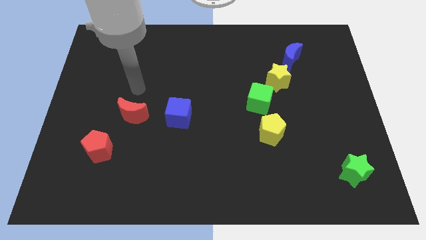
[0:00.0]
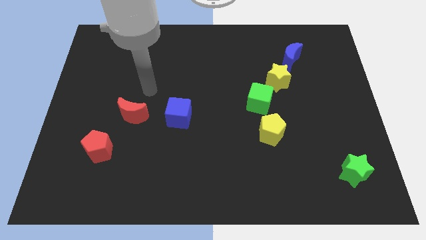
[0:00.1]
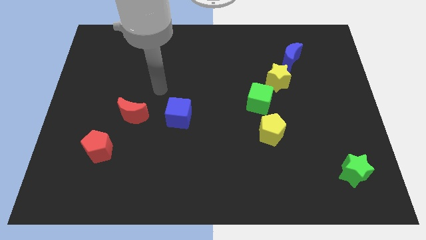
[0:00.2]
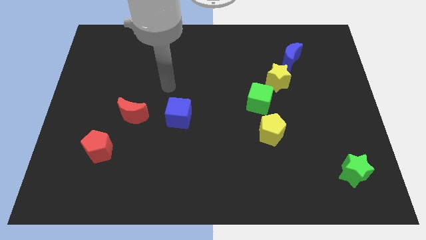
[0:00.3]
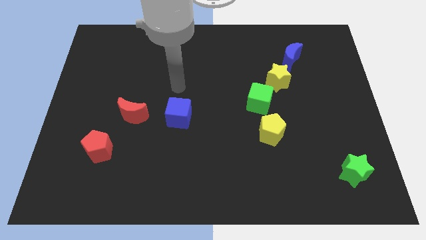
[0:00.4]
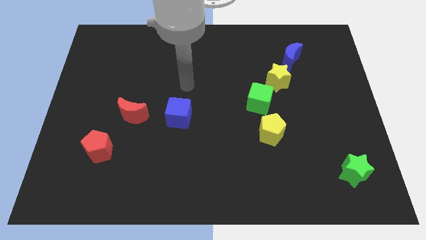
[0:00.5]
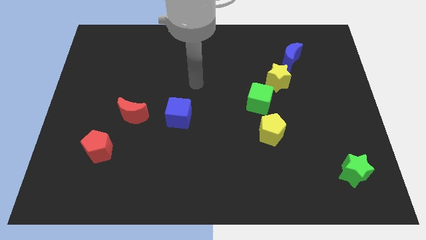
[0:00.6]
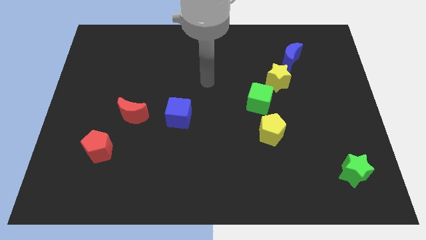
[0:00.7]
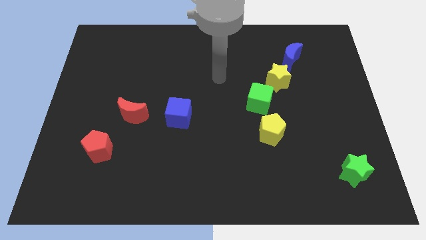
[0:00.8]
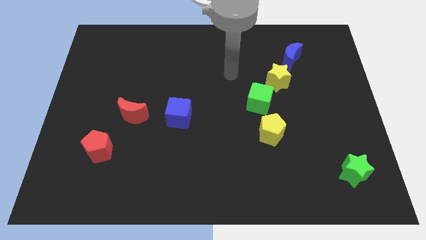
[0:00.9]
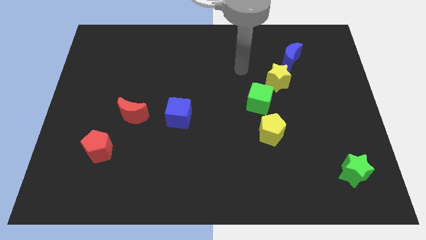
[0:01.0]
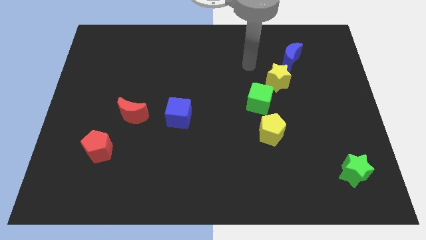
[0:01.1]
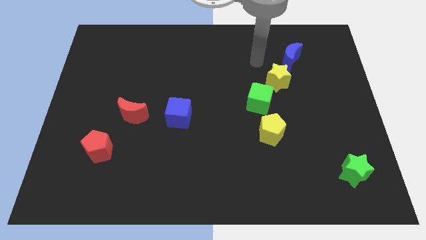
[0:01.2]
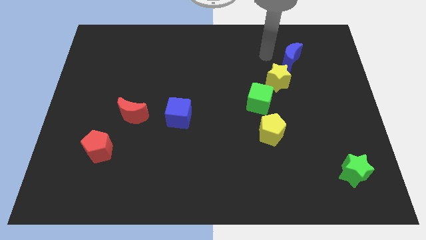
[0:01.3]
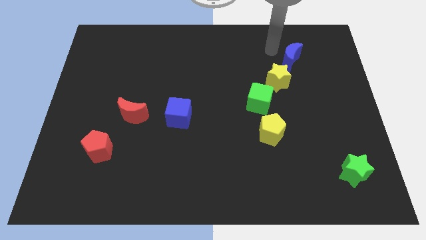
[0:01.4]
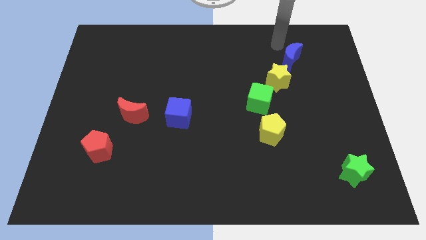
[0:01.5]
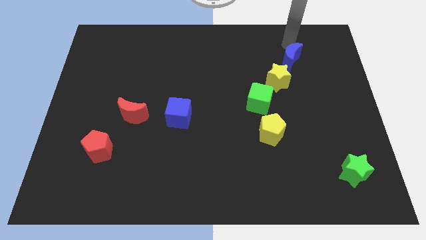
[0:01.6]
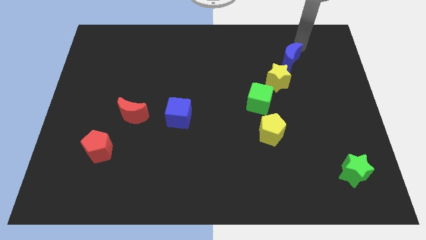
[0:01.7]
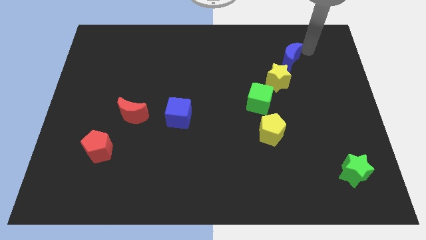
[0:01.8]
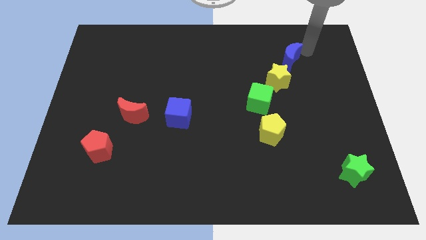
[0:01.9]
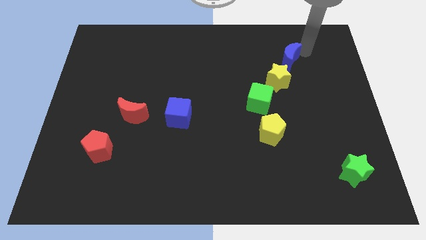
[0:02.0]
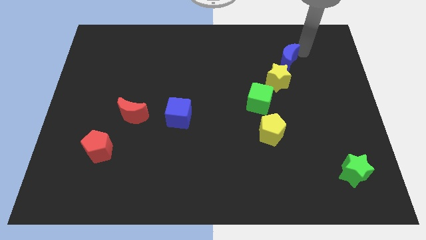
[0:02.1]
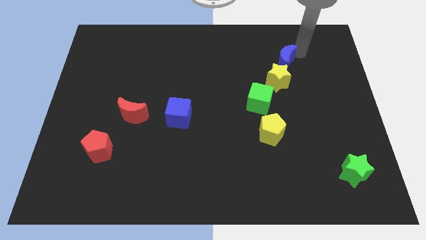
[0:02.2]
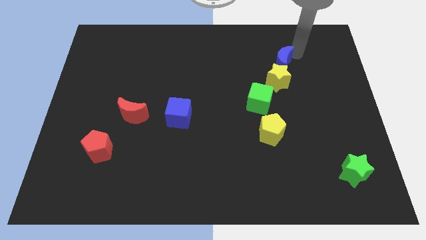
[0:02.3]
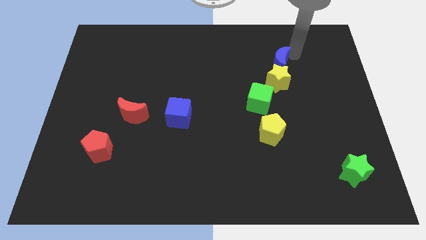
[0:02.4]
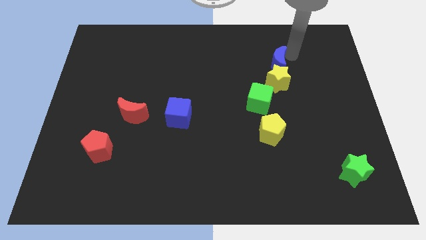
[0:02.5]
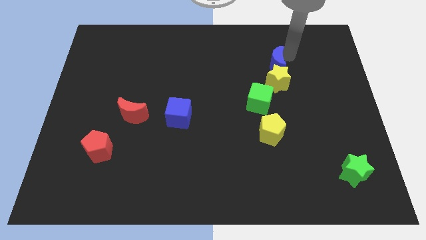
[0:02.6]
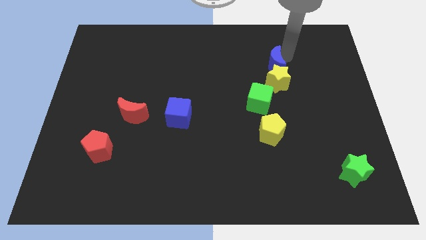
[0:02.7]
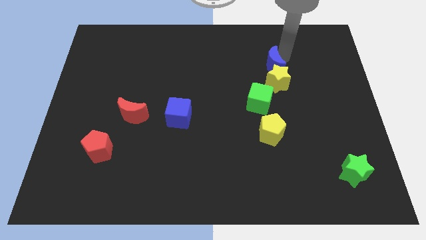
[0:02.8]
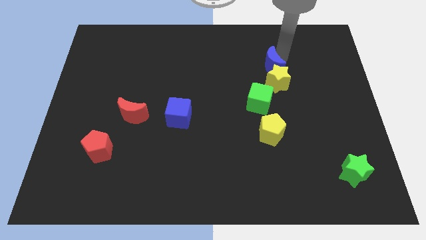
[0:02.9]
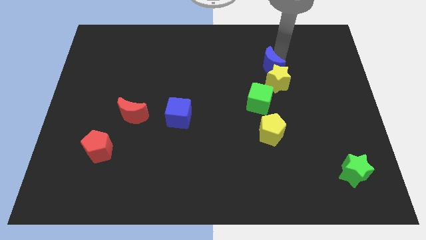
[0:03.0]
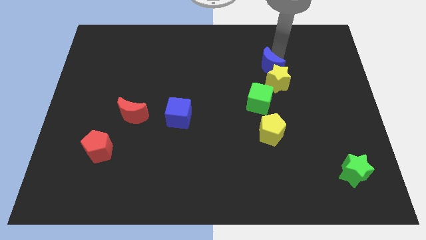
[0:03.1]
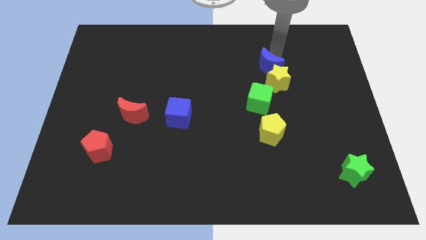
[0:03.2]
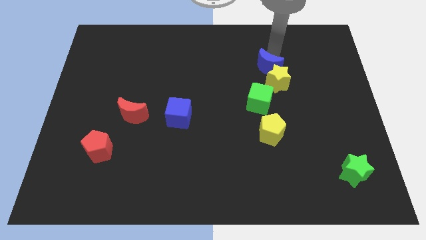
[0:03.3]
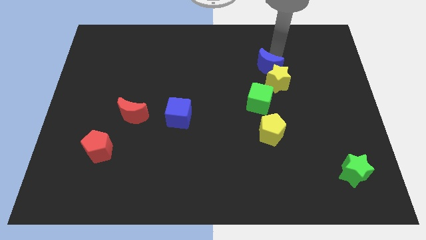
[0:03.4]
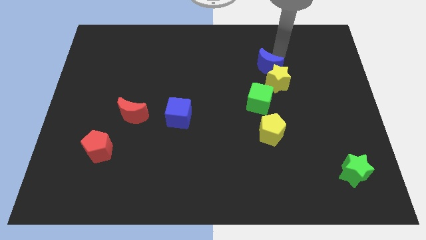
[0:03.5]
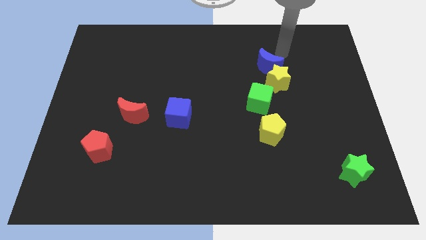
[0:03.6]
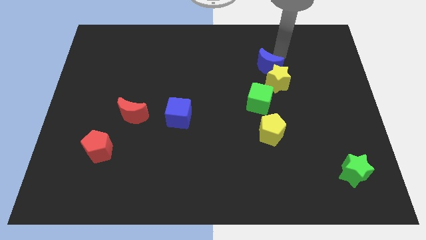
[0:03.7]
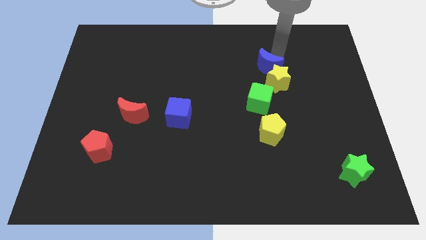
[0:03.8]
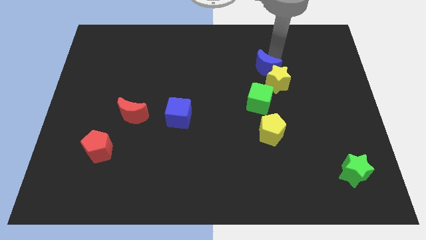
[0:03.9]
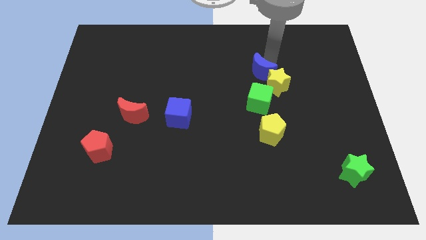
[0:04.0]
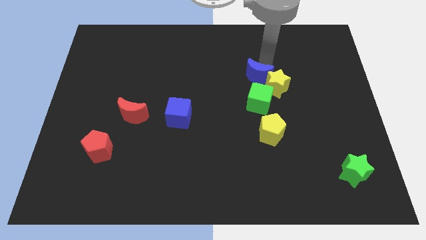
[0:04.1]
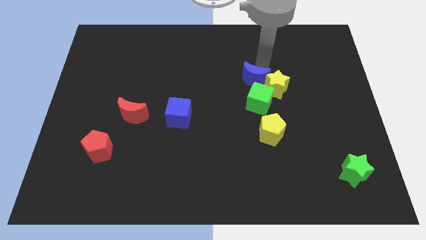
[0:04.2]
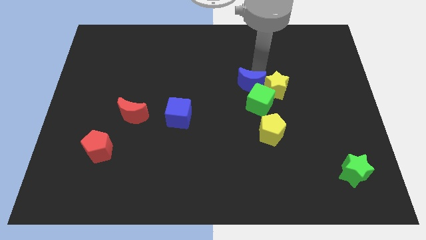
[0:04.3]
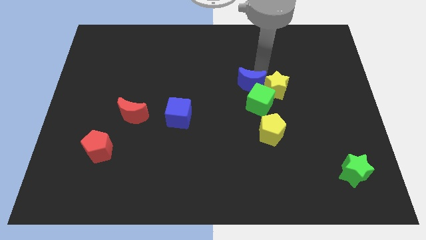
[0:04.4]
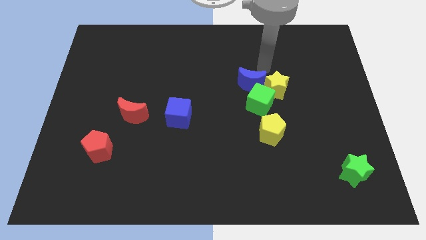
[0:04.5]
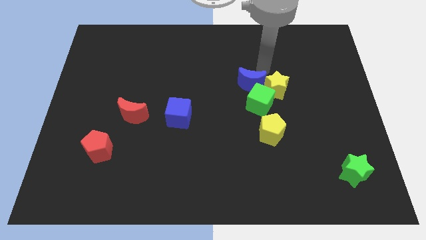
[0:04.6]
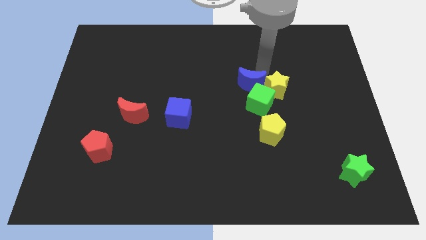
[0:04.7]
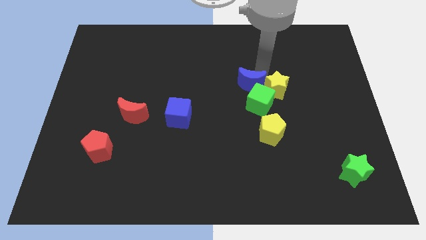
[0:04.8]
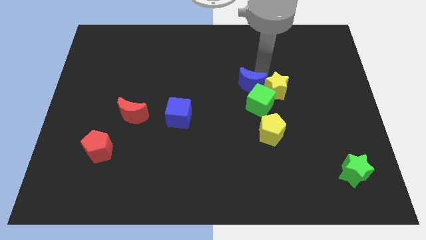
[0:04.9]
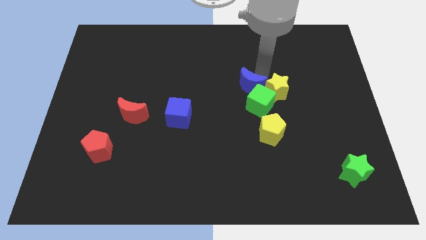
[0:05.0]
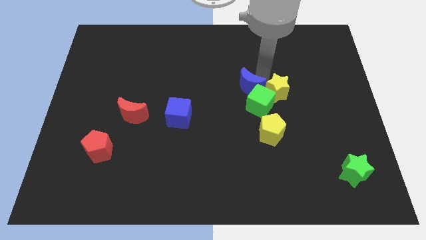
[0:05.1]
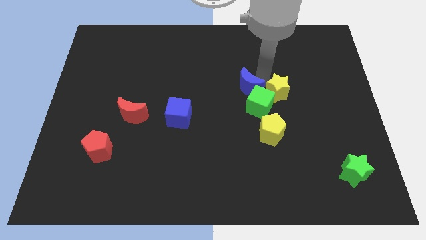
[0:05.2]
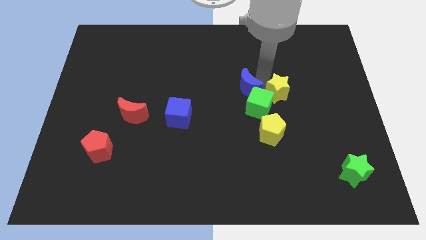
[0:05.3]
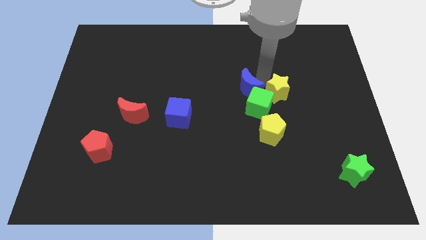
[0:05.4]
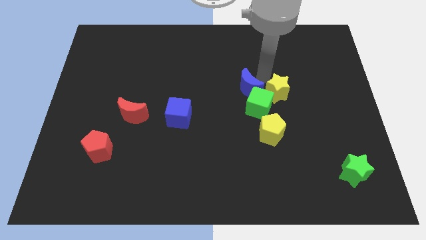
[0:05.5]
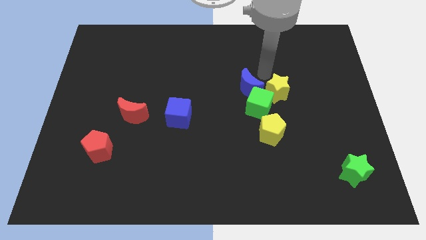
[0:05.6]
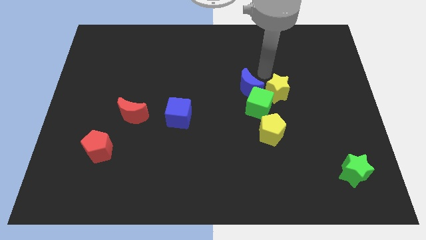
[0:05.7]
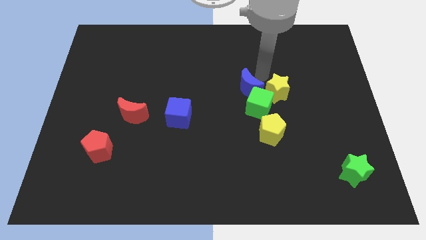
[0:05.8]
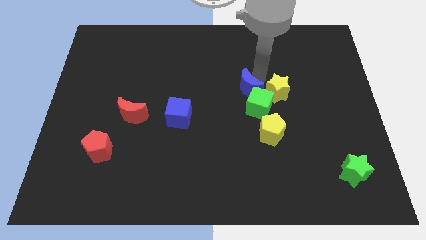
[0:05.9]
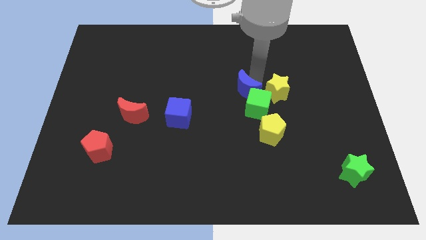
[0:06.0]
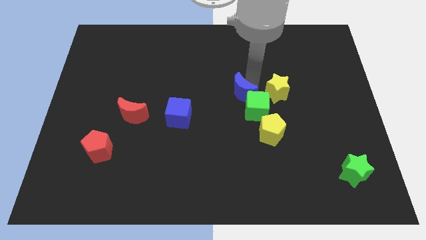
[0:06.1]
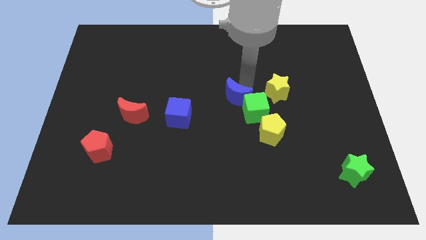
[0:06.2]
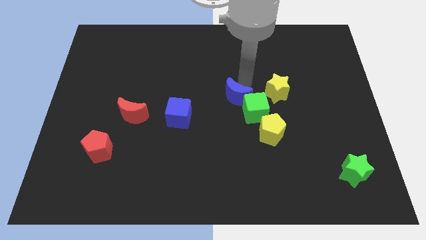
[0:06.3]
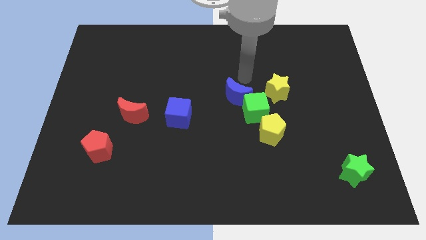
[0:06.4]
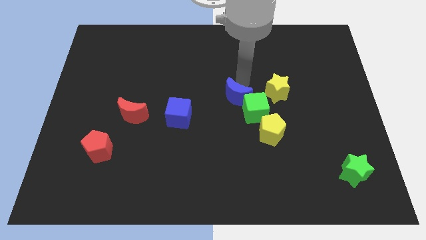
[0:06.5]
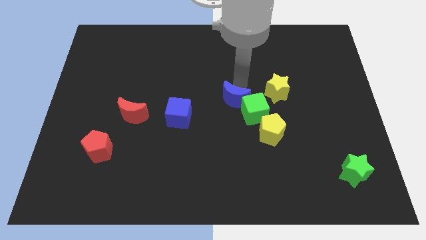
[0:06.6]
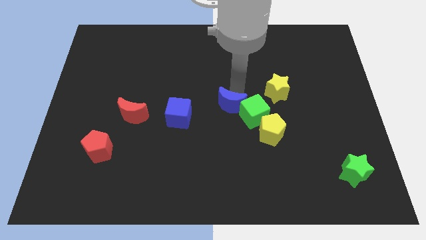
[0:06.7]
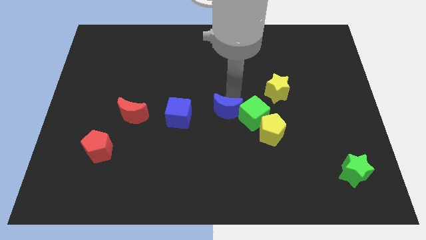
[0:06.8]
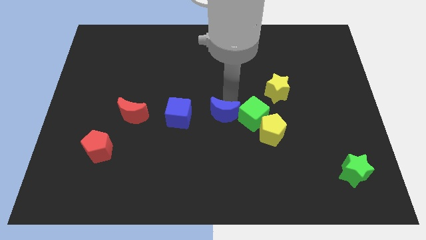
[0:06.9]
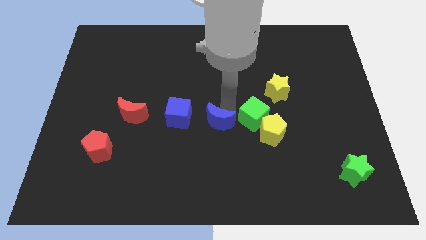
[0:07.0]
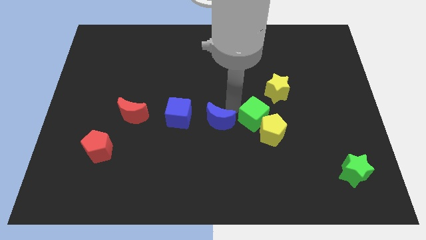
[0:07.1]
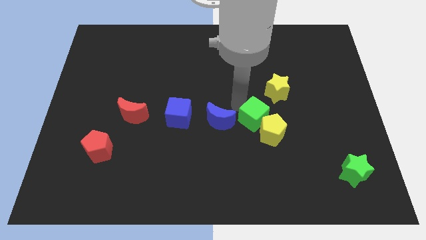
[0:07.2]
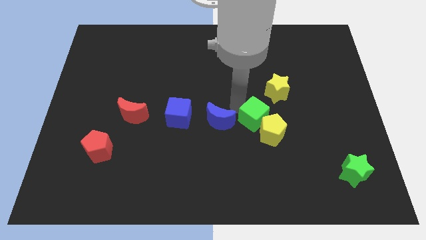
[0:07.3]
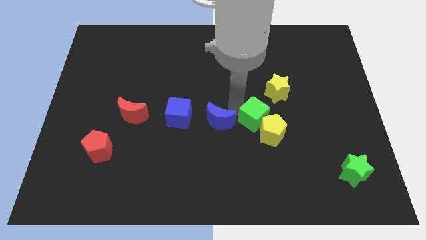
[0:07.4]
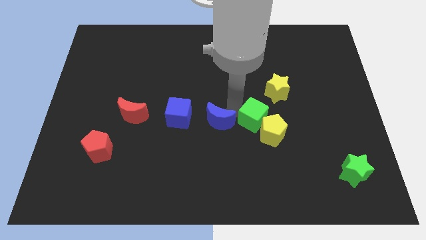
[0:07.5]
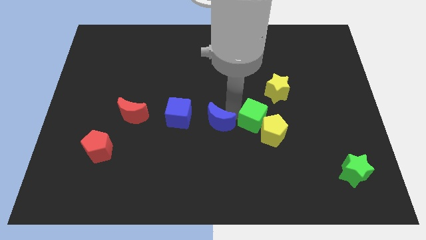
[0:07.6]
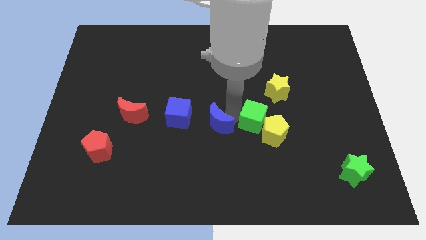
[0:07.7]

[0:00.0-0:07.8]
put the blue moon to the bottom right of the blue cube
